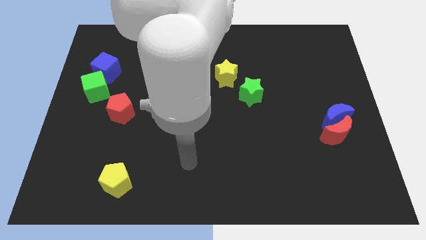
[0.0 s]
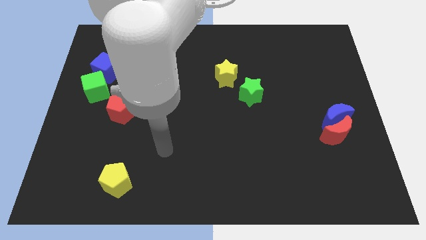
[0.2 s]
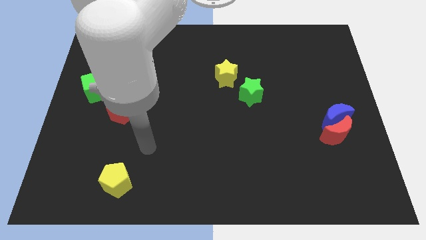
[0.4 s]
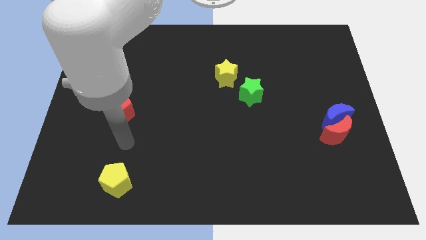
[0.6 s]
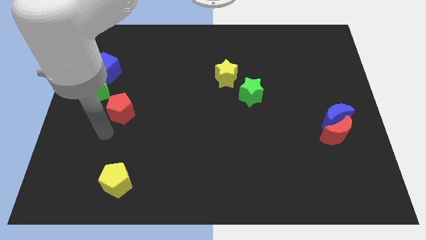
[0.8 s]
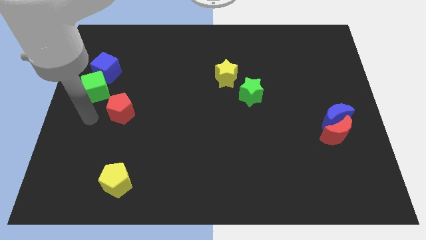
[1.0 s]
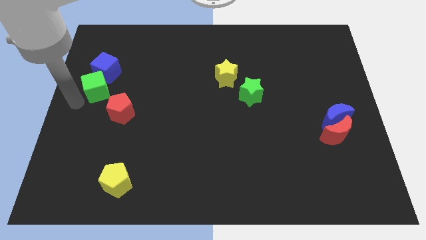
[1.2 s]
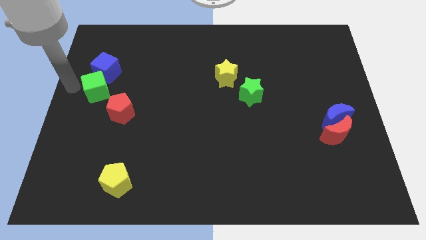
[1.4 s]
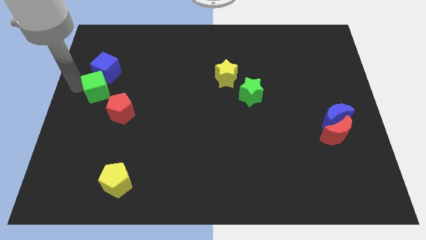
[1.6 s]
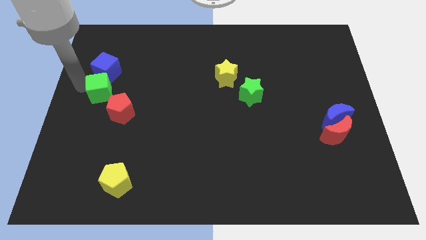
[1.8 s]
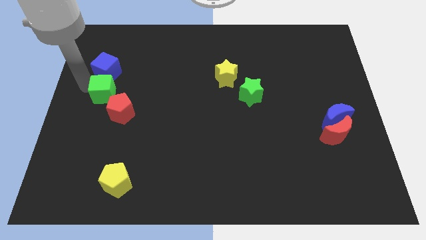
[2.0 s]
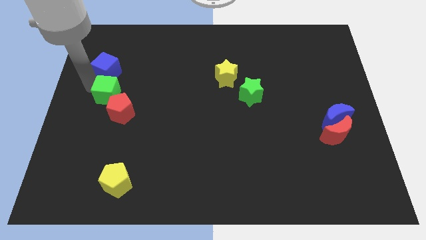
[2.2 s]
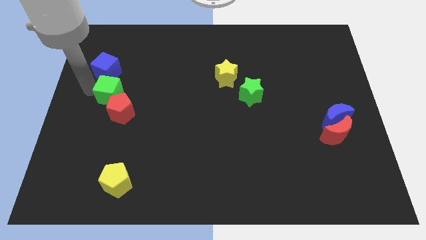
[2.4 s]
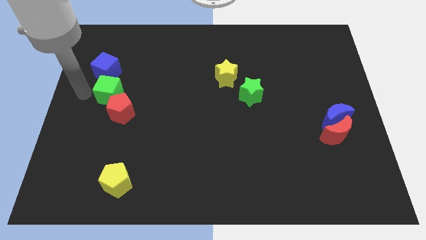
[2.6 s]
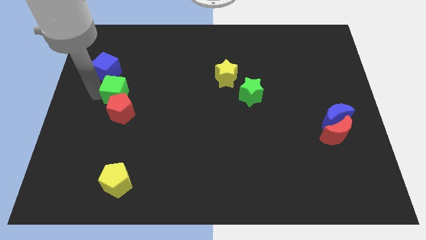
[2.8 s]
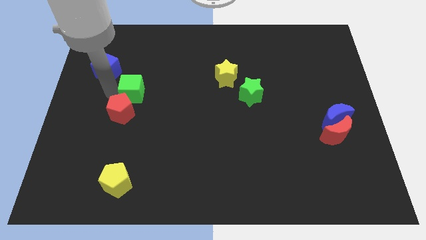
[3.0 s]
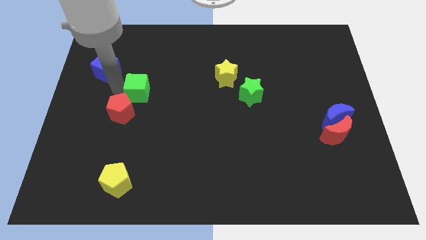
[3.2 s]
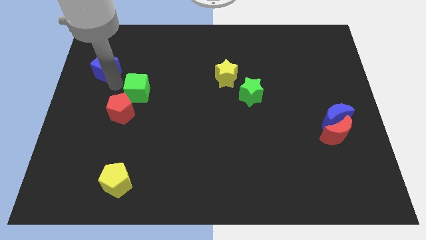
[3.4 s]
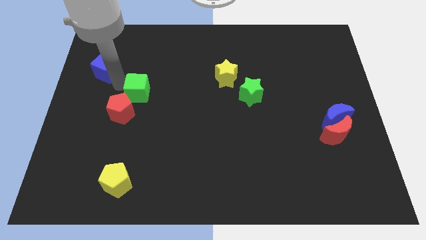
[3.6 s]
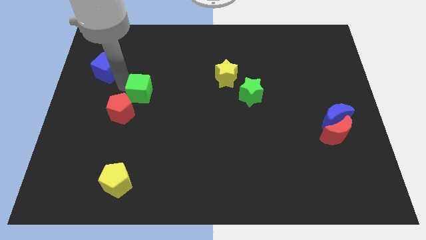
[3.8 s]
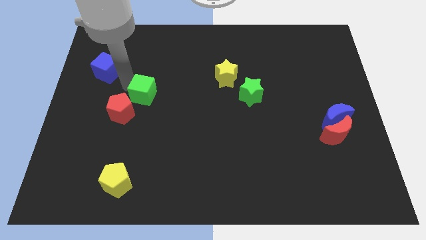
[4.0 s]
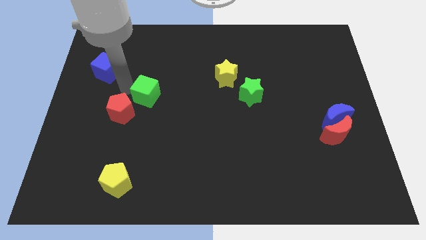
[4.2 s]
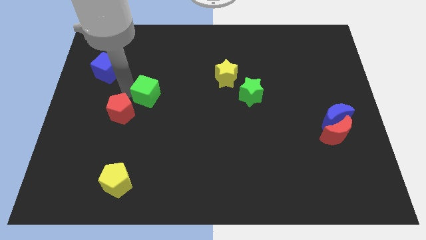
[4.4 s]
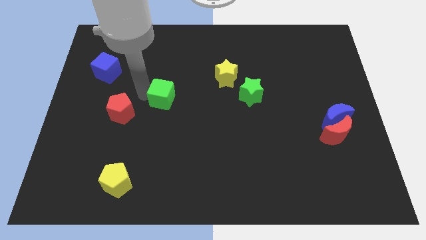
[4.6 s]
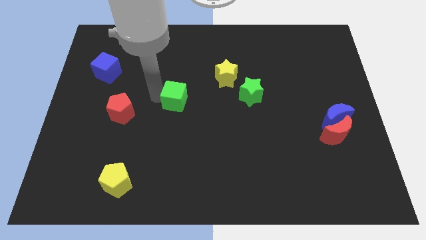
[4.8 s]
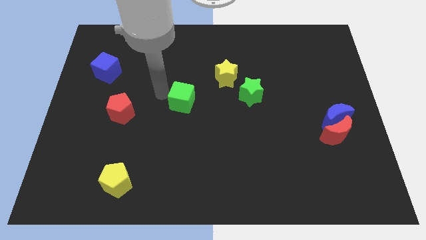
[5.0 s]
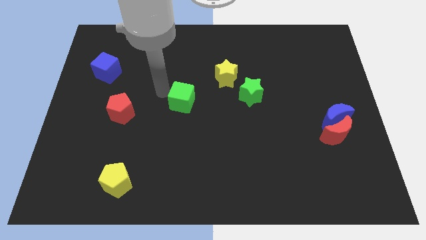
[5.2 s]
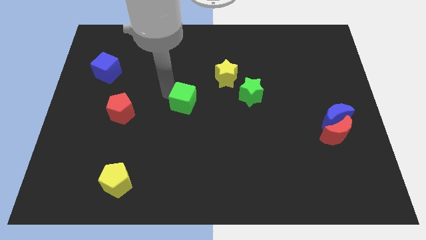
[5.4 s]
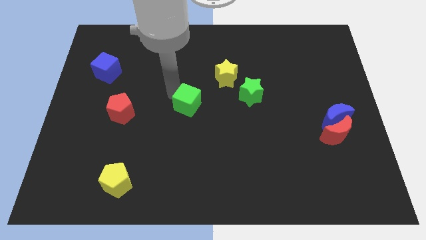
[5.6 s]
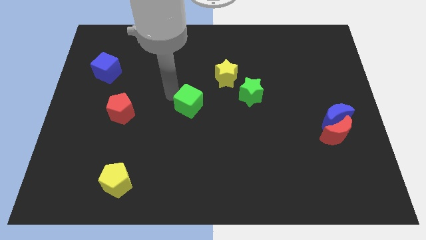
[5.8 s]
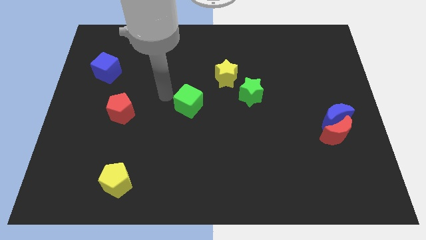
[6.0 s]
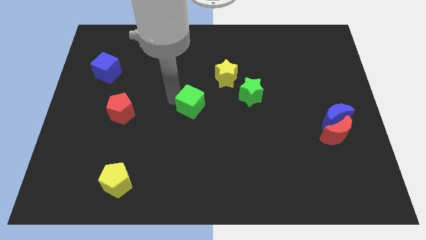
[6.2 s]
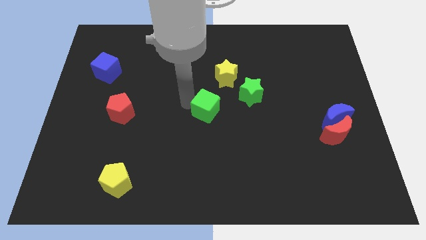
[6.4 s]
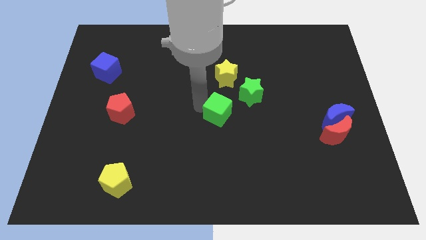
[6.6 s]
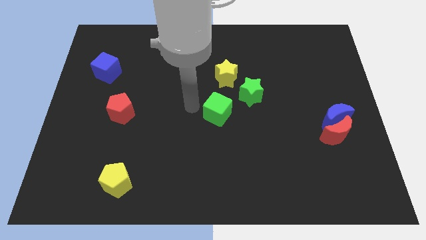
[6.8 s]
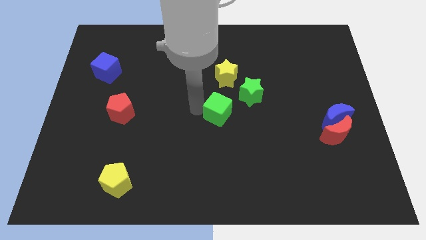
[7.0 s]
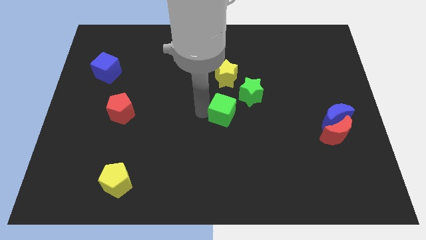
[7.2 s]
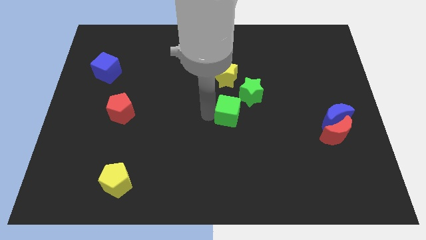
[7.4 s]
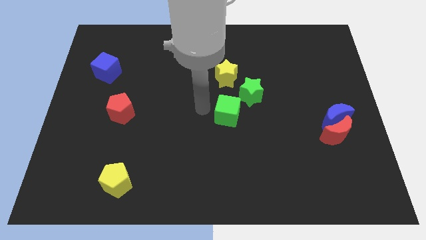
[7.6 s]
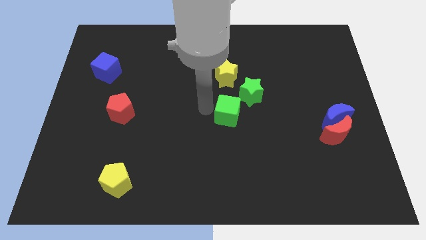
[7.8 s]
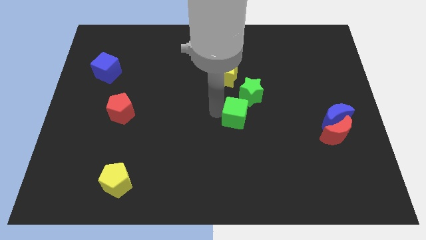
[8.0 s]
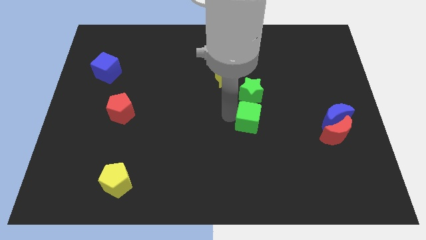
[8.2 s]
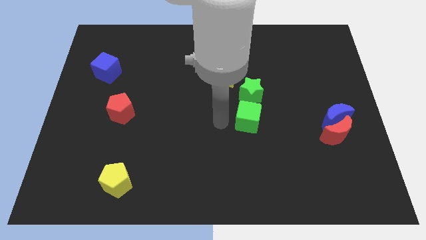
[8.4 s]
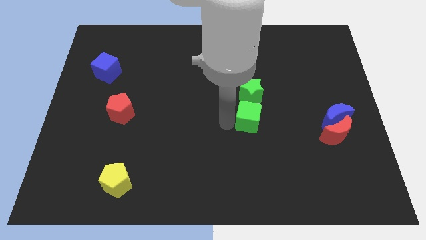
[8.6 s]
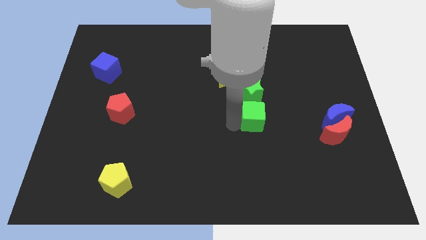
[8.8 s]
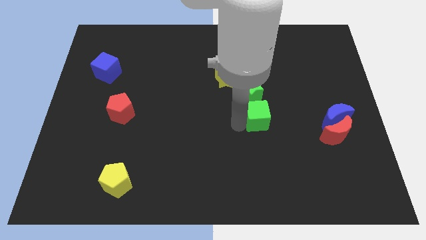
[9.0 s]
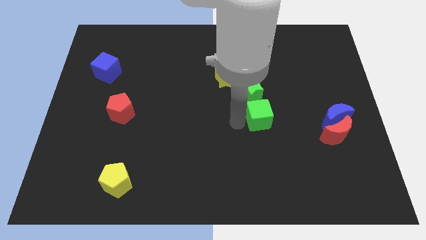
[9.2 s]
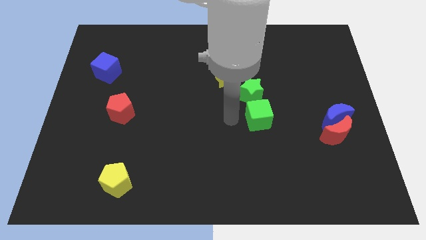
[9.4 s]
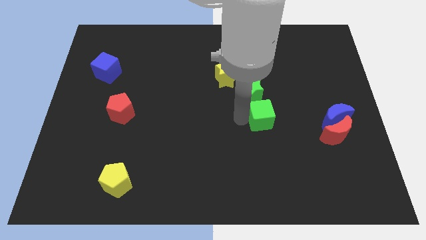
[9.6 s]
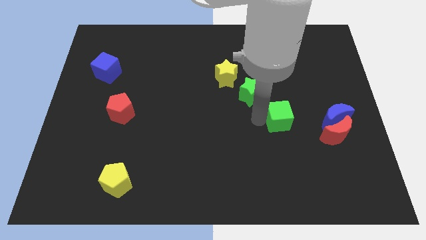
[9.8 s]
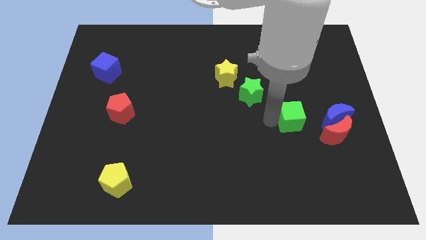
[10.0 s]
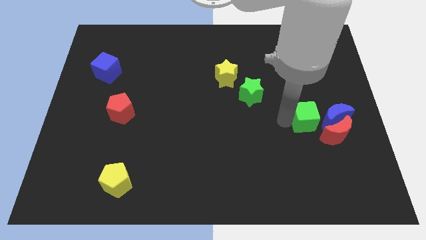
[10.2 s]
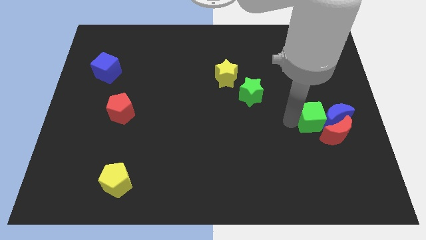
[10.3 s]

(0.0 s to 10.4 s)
push the green cube towards the blue moon

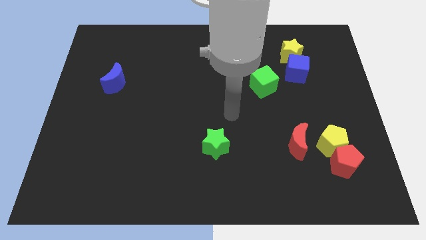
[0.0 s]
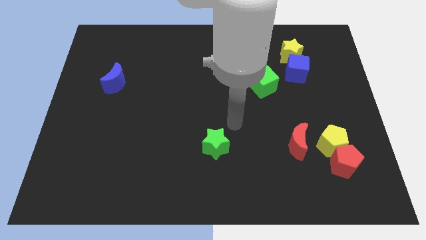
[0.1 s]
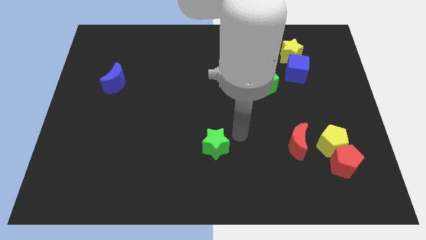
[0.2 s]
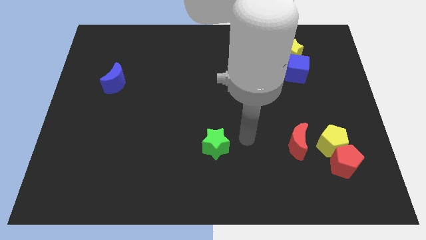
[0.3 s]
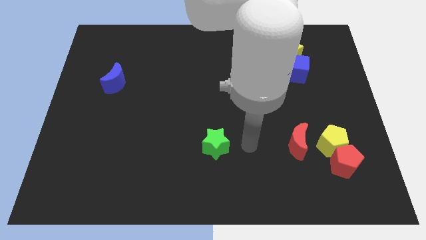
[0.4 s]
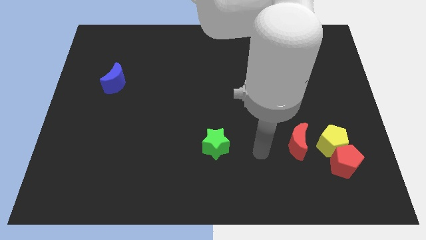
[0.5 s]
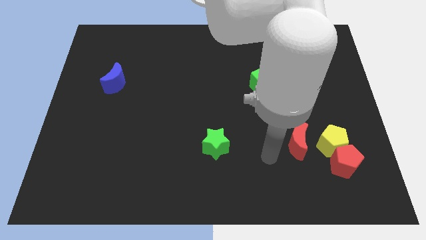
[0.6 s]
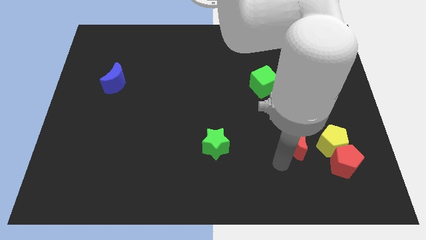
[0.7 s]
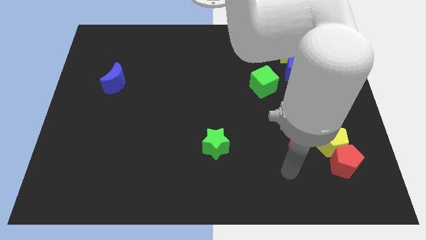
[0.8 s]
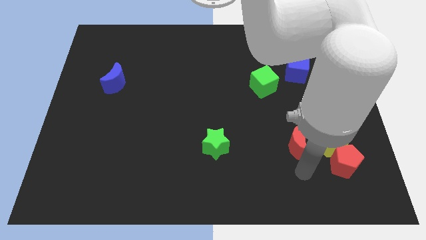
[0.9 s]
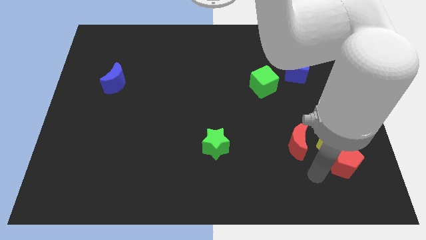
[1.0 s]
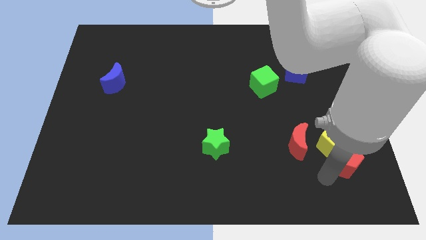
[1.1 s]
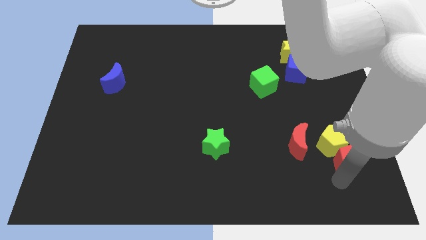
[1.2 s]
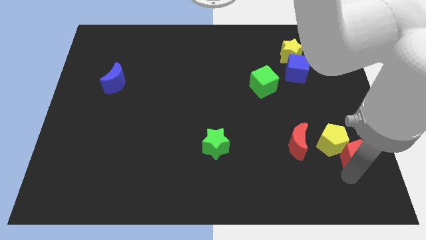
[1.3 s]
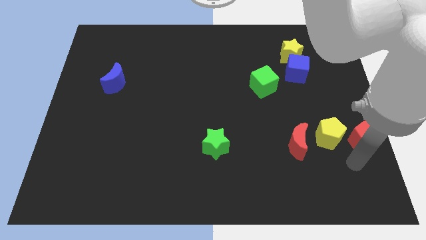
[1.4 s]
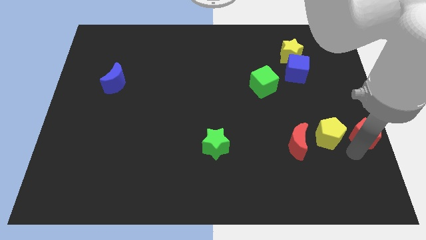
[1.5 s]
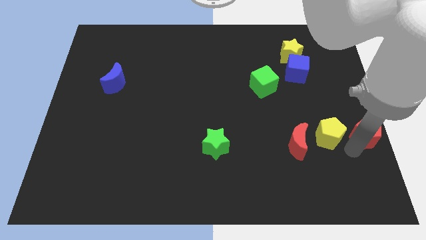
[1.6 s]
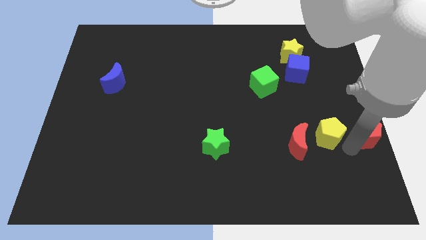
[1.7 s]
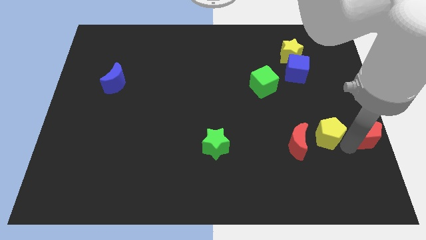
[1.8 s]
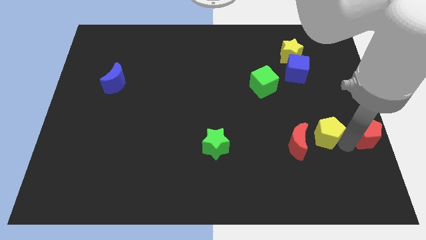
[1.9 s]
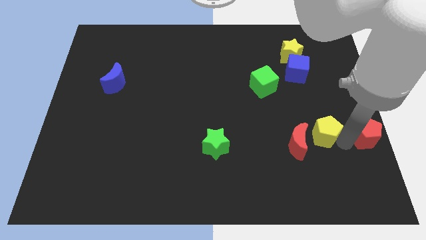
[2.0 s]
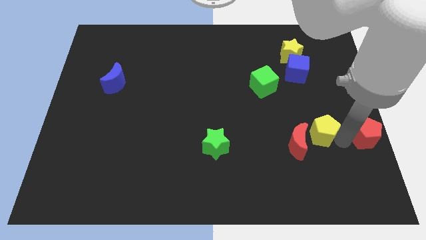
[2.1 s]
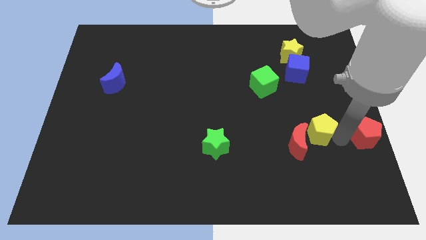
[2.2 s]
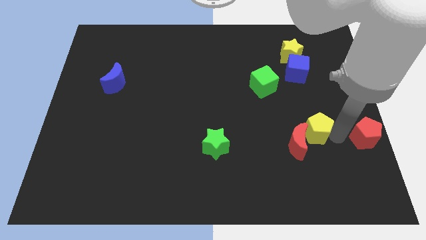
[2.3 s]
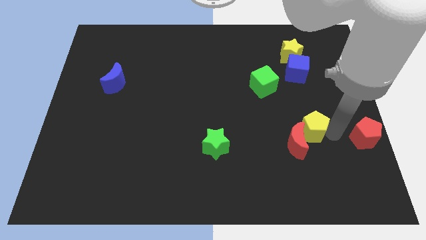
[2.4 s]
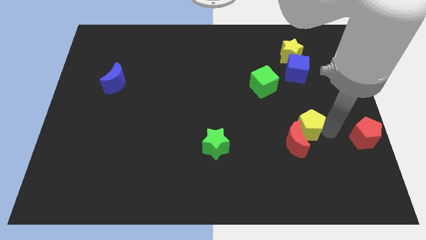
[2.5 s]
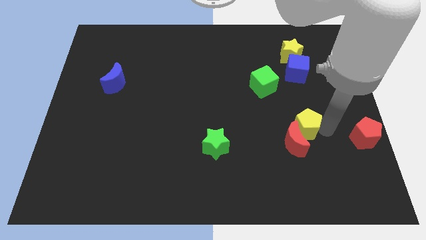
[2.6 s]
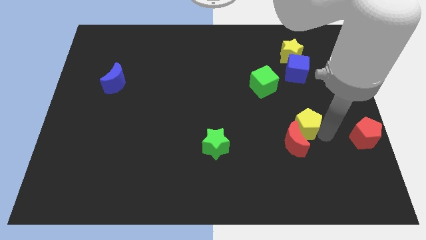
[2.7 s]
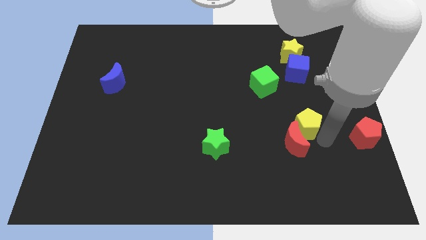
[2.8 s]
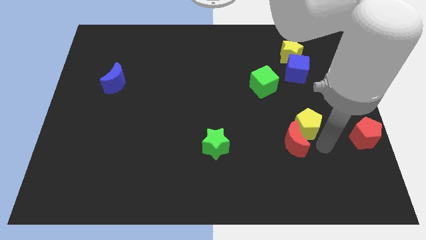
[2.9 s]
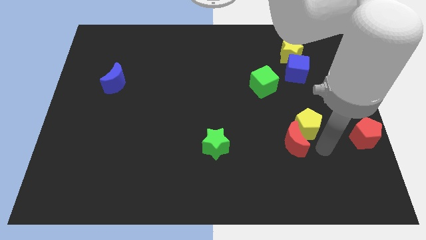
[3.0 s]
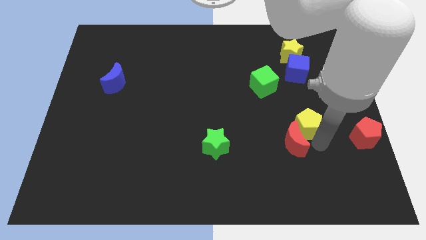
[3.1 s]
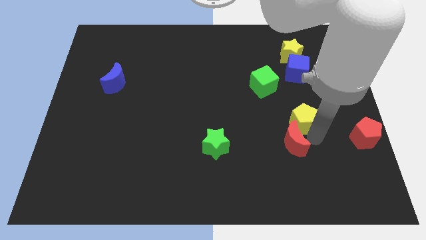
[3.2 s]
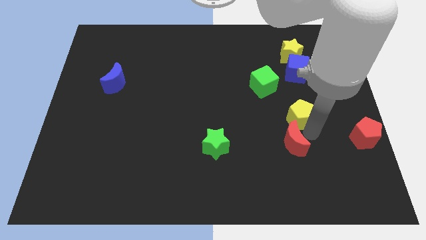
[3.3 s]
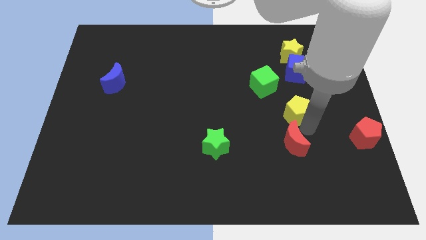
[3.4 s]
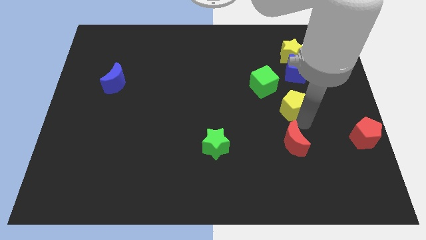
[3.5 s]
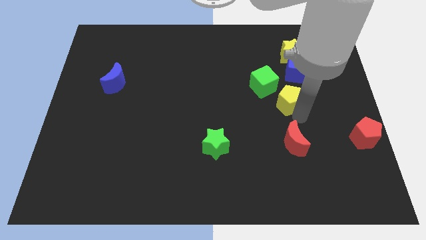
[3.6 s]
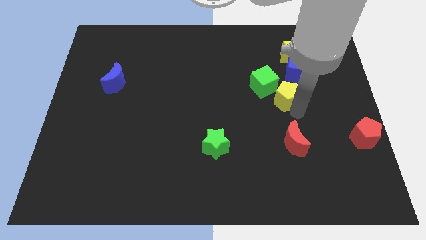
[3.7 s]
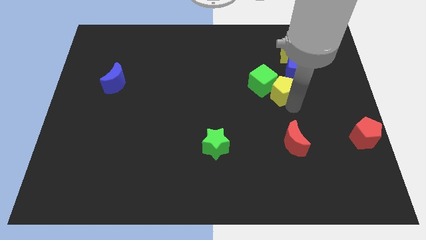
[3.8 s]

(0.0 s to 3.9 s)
move the yellow pentagon to the green cube
